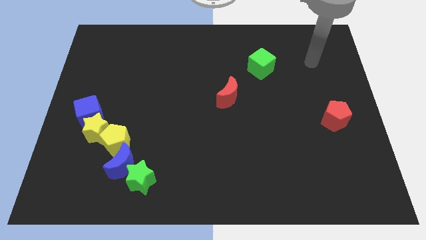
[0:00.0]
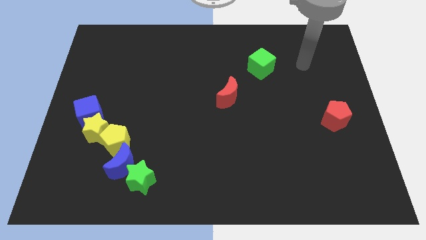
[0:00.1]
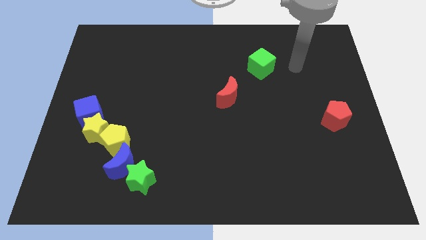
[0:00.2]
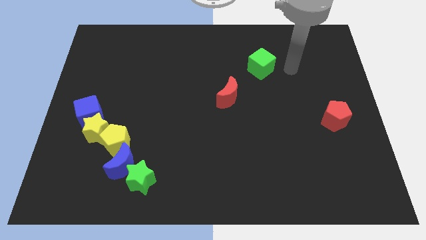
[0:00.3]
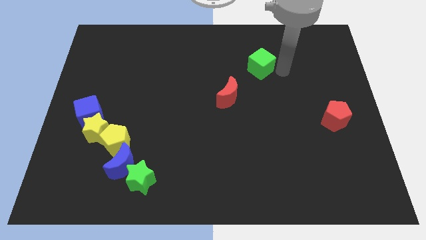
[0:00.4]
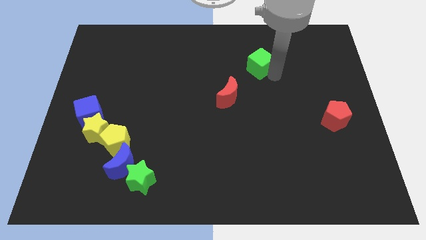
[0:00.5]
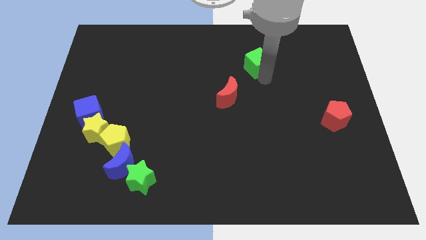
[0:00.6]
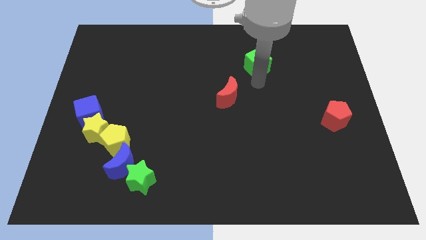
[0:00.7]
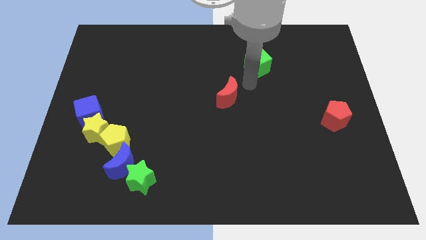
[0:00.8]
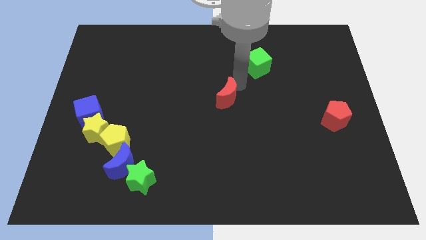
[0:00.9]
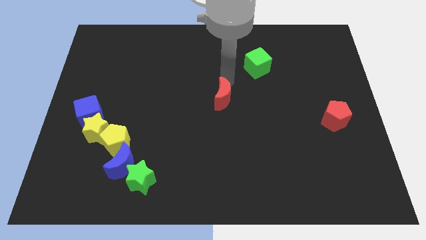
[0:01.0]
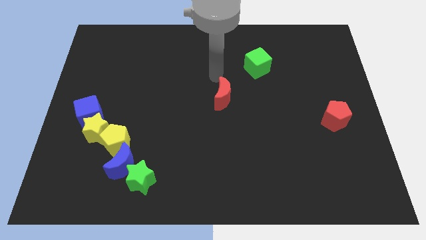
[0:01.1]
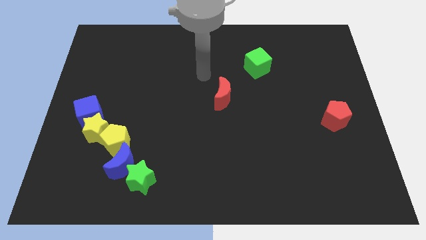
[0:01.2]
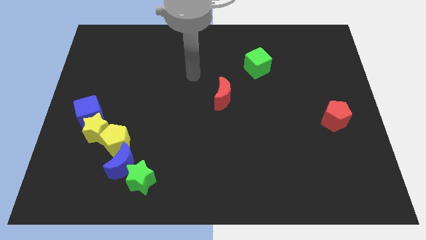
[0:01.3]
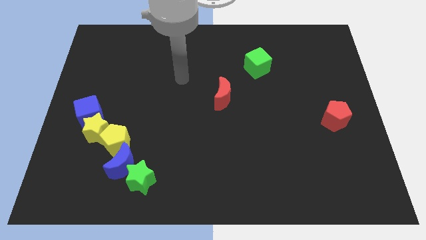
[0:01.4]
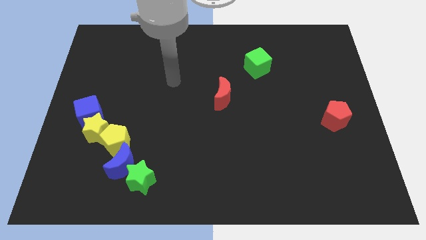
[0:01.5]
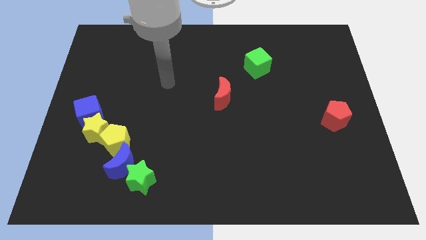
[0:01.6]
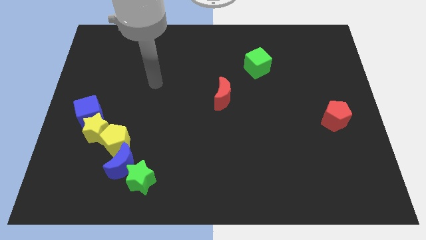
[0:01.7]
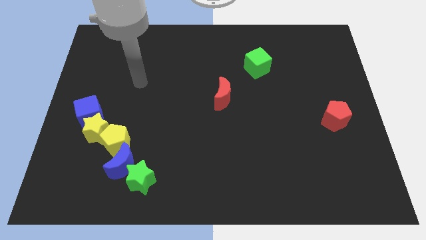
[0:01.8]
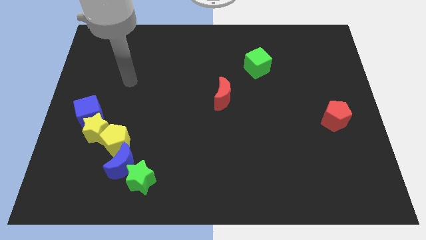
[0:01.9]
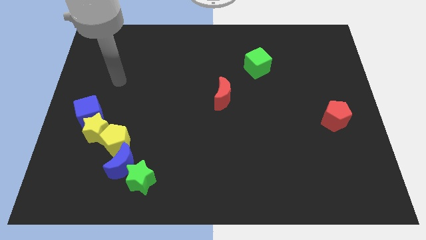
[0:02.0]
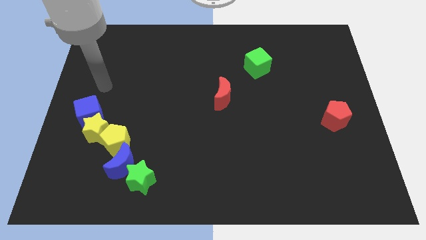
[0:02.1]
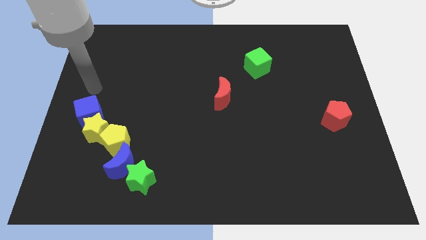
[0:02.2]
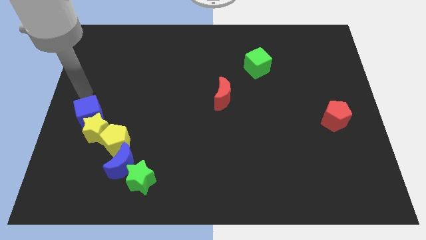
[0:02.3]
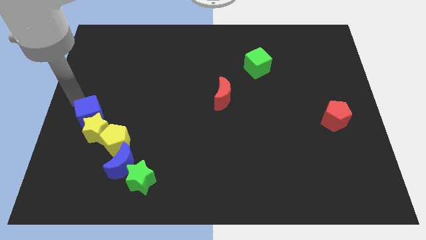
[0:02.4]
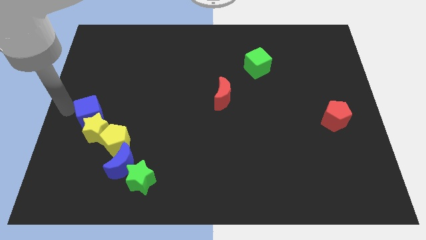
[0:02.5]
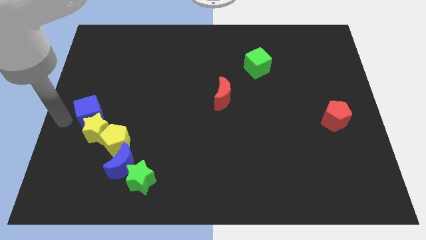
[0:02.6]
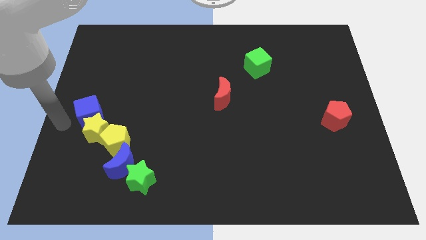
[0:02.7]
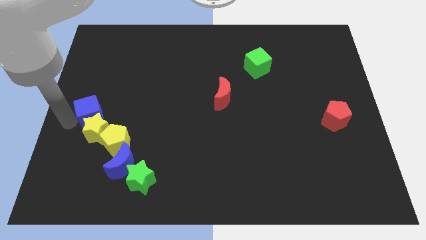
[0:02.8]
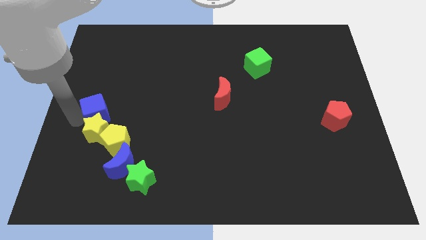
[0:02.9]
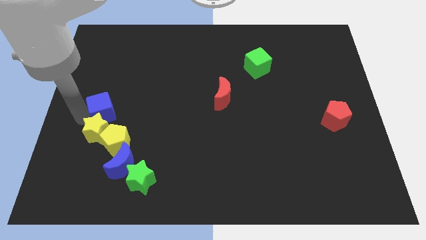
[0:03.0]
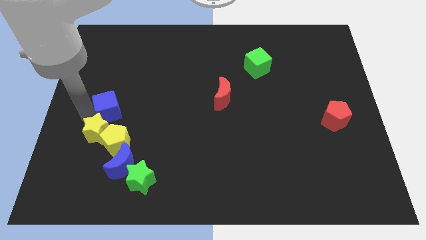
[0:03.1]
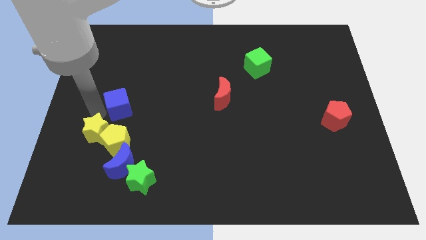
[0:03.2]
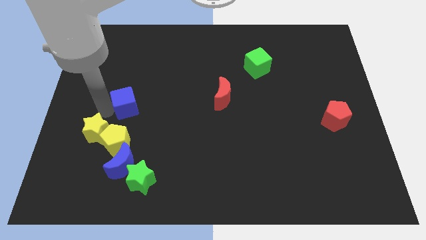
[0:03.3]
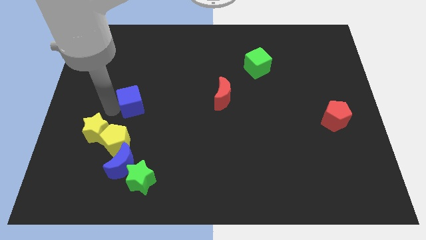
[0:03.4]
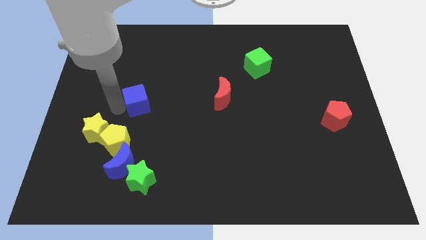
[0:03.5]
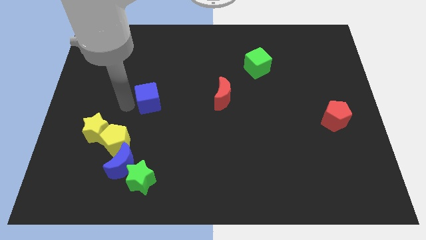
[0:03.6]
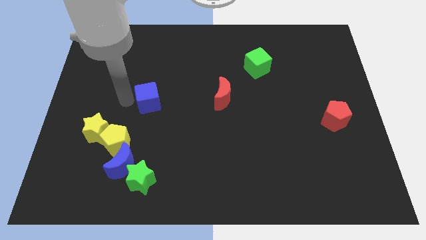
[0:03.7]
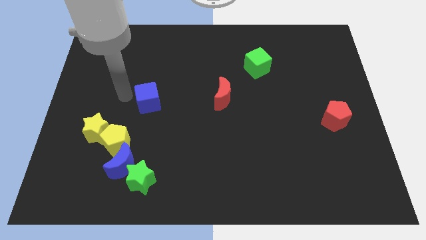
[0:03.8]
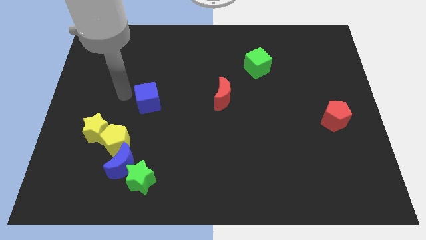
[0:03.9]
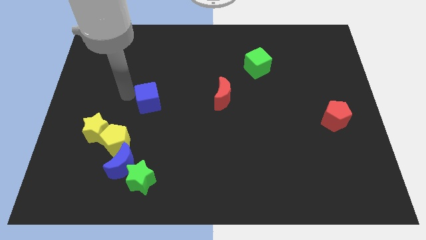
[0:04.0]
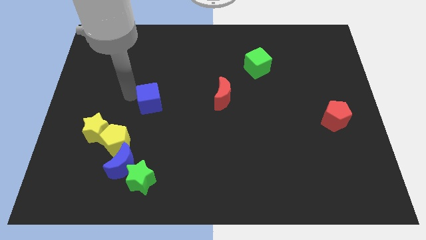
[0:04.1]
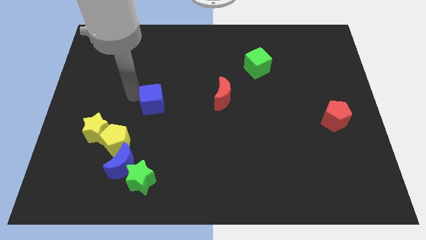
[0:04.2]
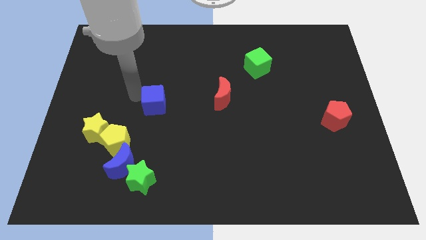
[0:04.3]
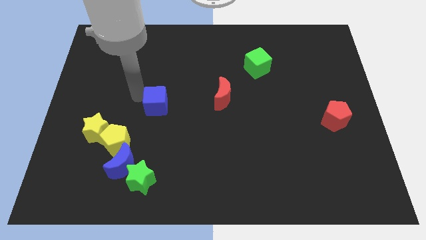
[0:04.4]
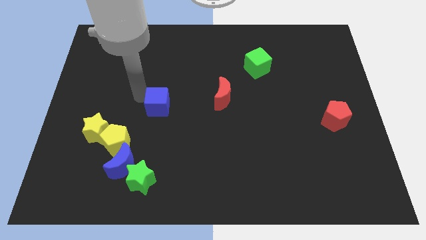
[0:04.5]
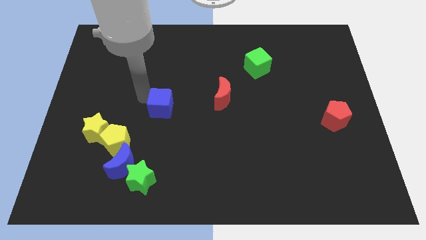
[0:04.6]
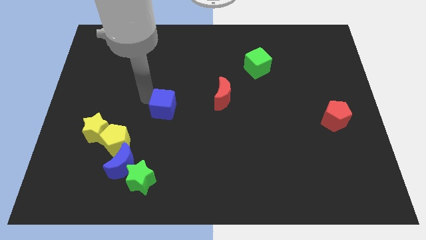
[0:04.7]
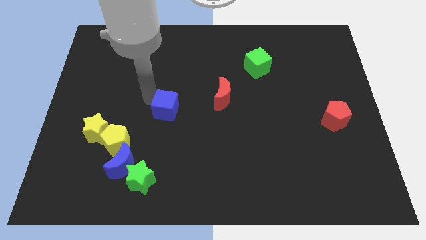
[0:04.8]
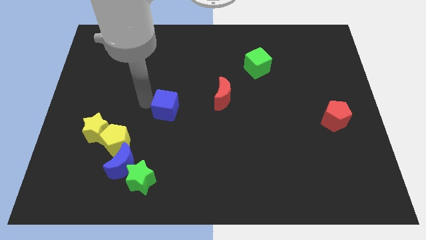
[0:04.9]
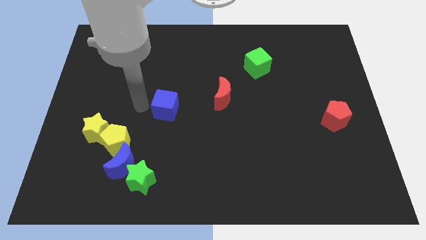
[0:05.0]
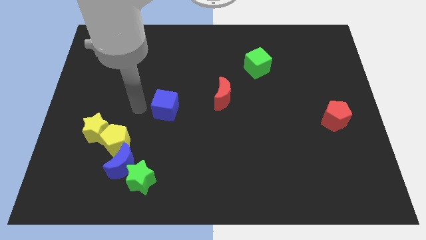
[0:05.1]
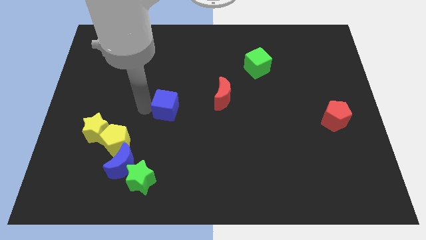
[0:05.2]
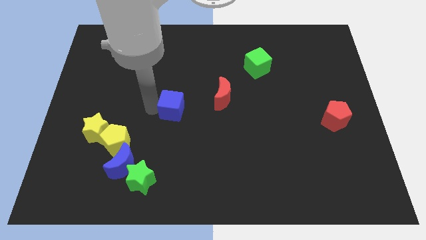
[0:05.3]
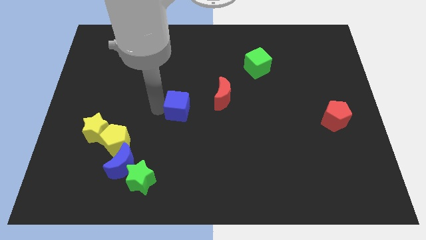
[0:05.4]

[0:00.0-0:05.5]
push the blue cube right

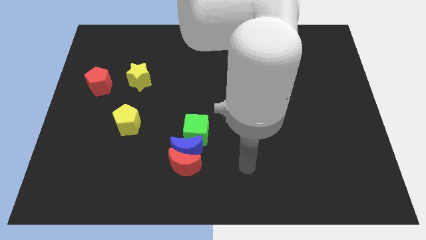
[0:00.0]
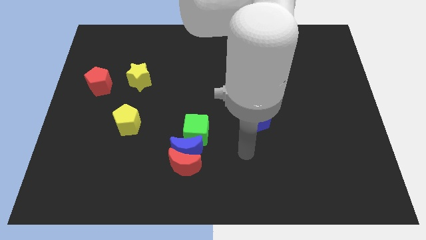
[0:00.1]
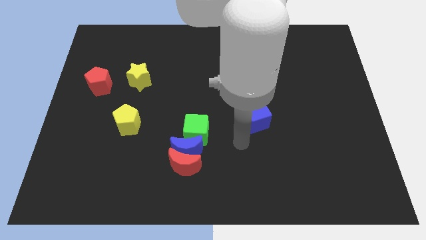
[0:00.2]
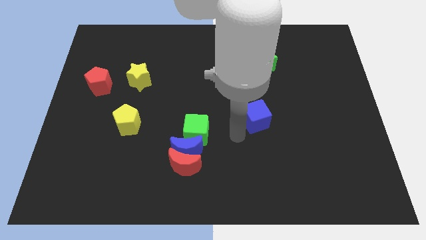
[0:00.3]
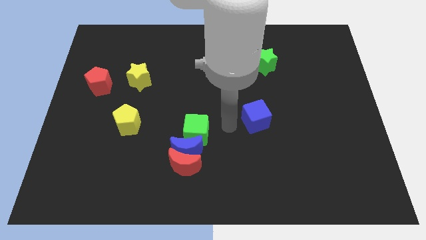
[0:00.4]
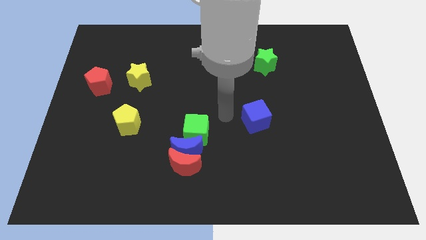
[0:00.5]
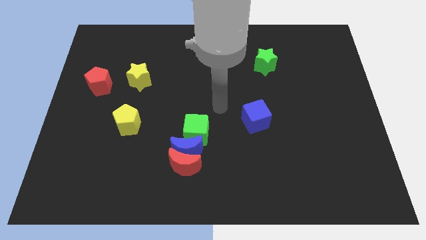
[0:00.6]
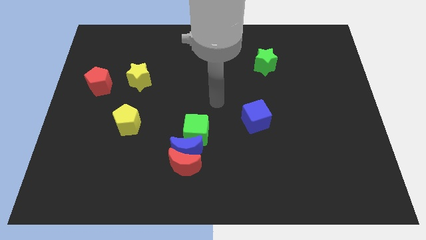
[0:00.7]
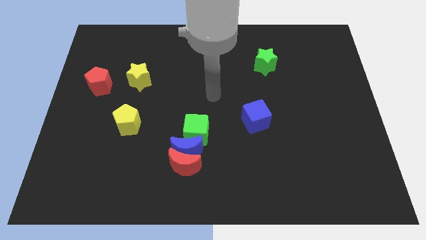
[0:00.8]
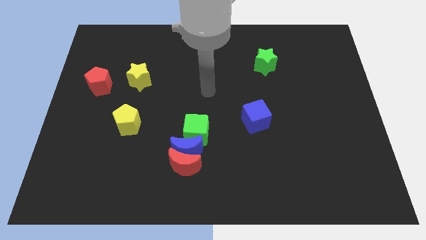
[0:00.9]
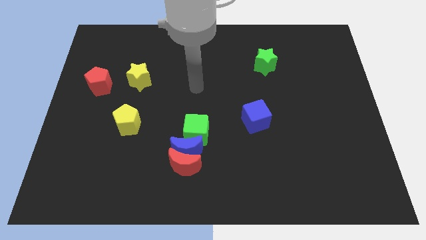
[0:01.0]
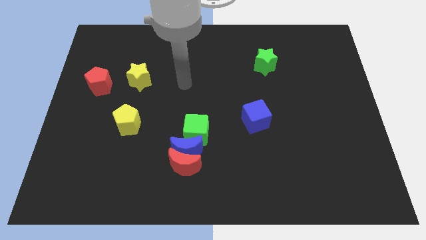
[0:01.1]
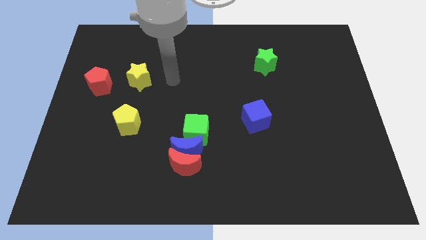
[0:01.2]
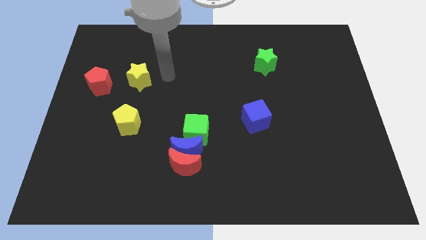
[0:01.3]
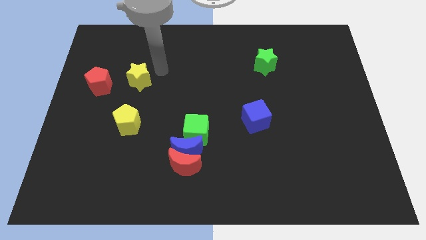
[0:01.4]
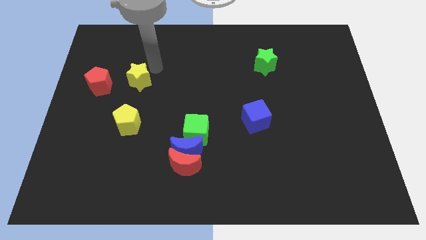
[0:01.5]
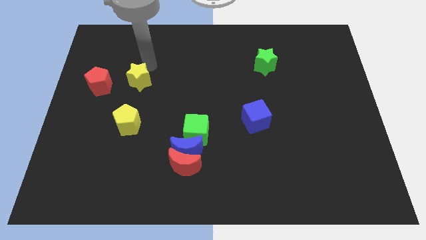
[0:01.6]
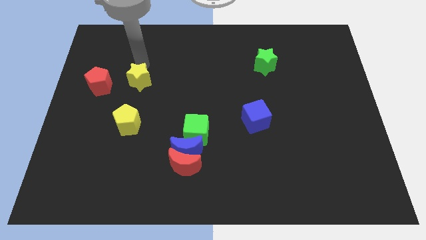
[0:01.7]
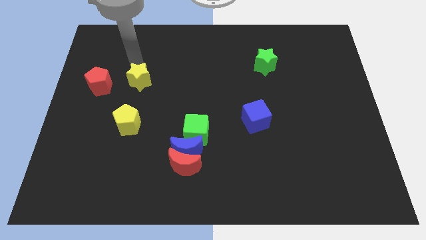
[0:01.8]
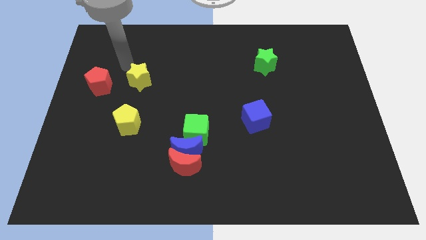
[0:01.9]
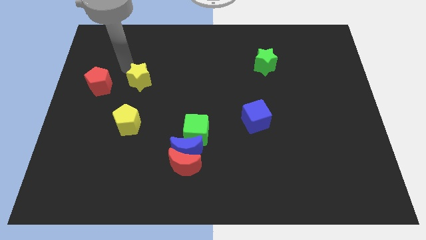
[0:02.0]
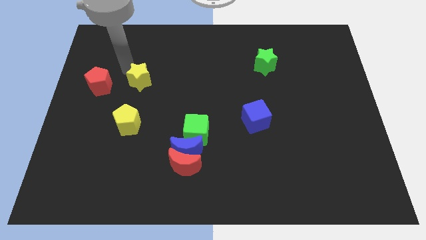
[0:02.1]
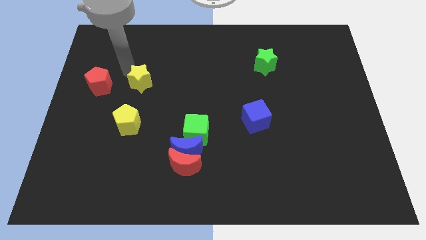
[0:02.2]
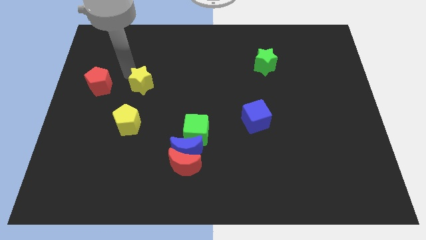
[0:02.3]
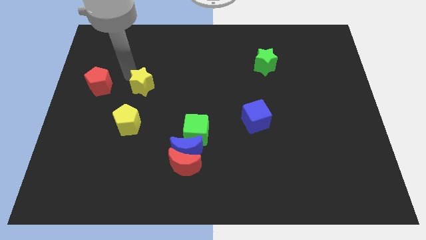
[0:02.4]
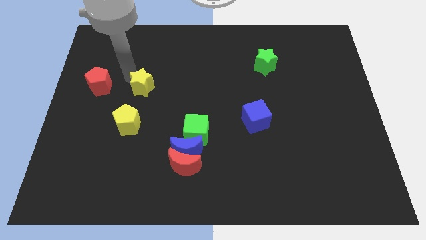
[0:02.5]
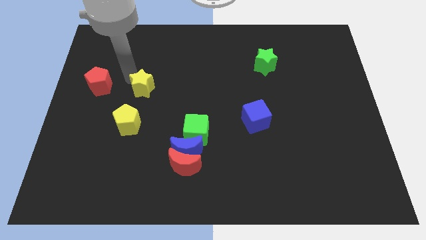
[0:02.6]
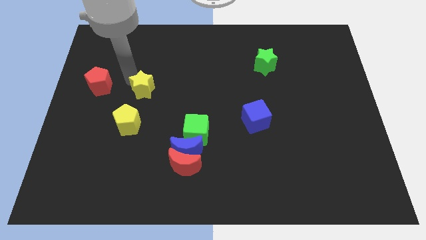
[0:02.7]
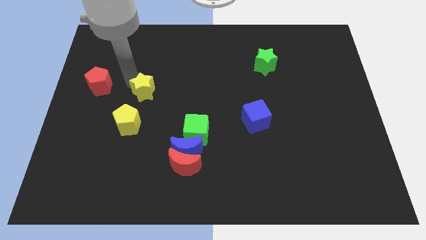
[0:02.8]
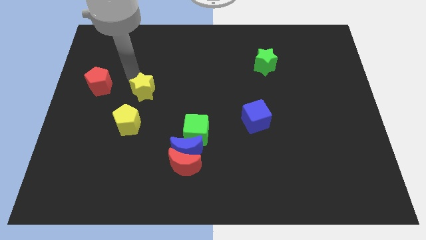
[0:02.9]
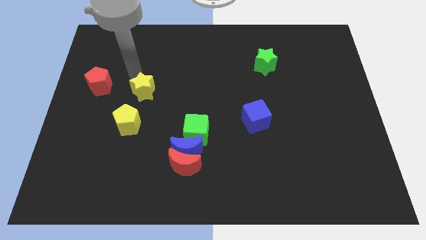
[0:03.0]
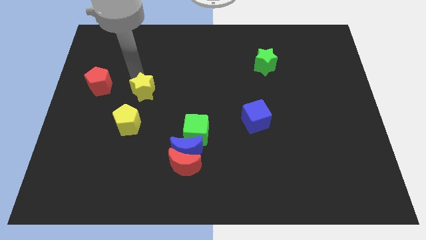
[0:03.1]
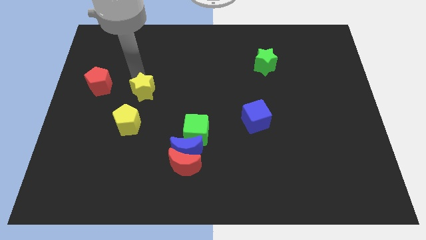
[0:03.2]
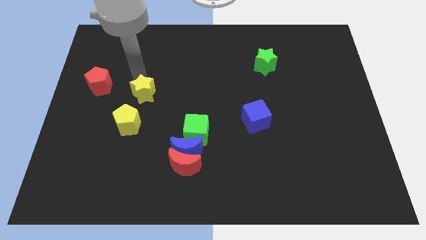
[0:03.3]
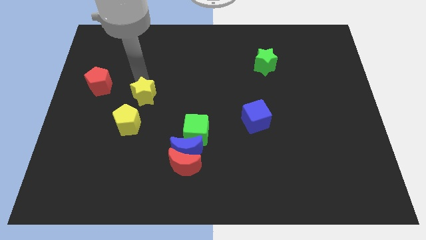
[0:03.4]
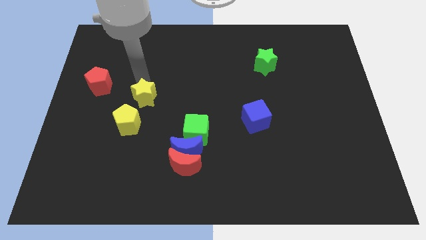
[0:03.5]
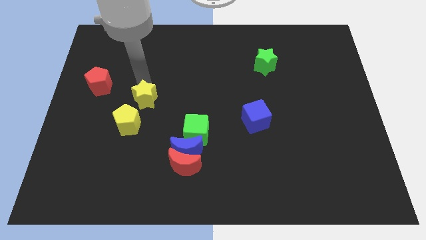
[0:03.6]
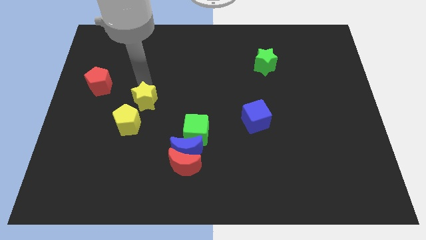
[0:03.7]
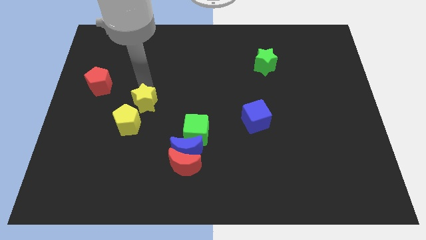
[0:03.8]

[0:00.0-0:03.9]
push the yellow star downwards a little
